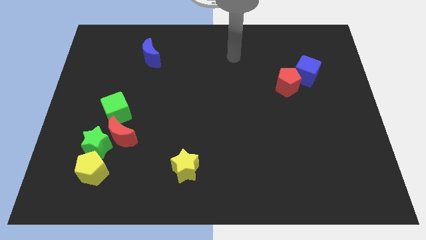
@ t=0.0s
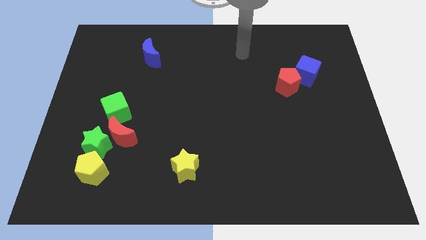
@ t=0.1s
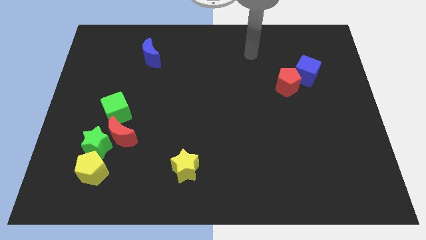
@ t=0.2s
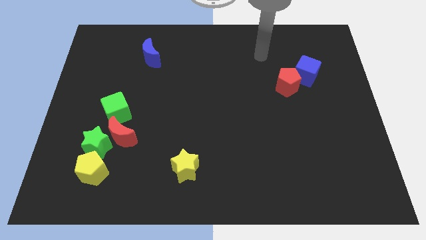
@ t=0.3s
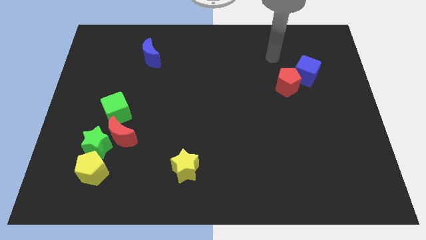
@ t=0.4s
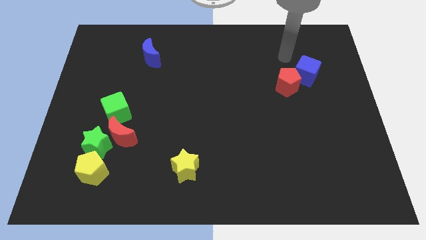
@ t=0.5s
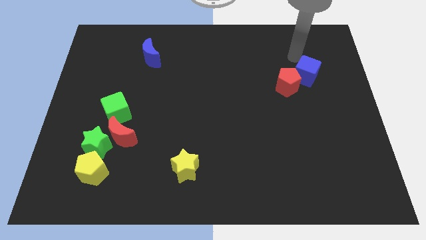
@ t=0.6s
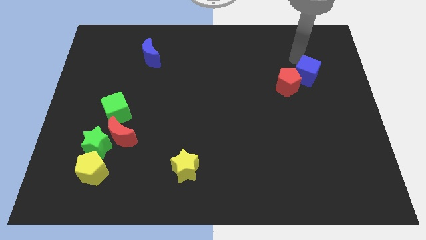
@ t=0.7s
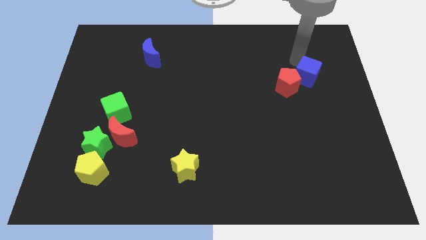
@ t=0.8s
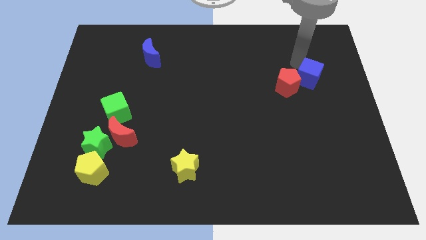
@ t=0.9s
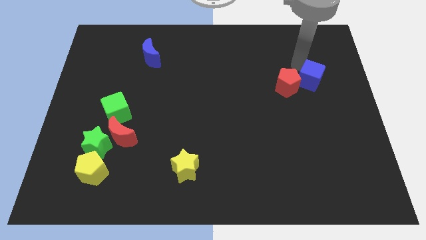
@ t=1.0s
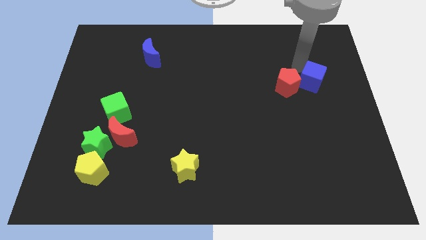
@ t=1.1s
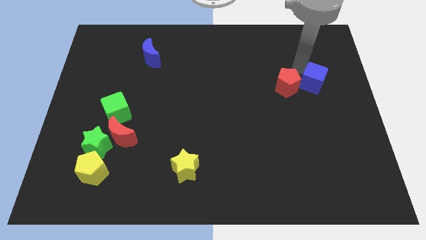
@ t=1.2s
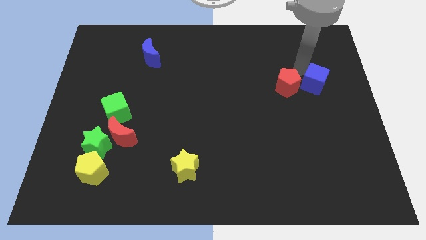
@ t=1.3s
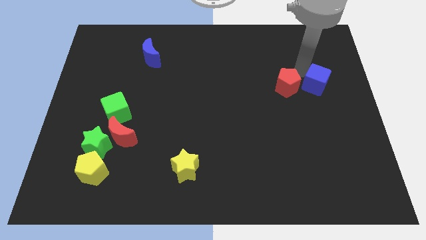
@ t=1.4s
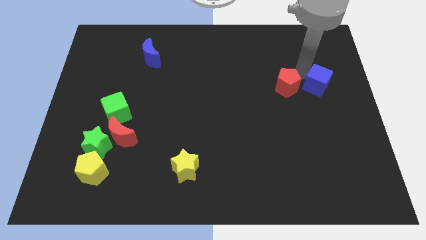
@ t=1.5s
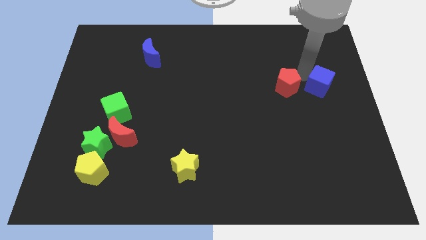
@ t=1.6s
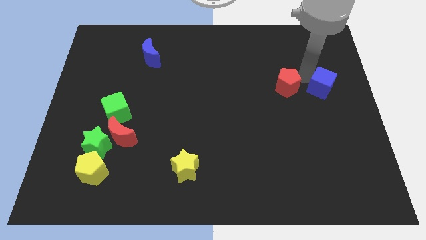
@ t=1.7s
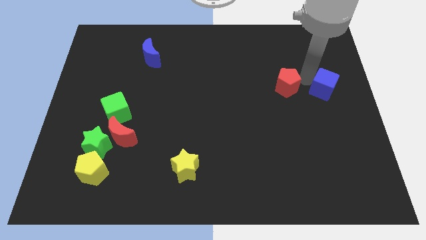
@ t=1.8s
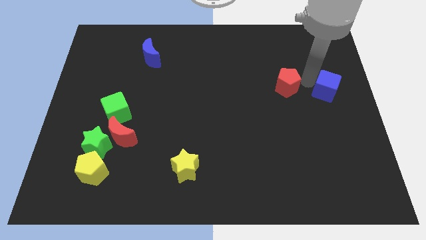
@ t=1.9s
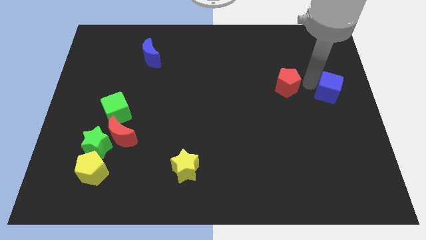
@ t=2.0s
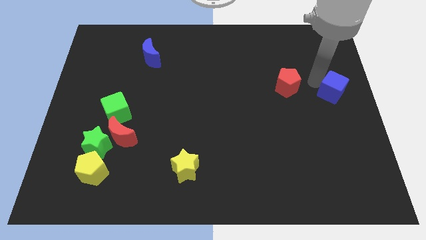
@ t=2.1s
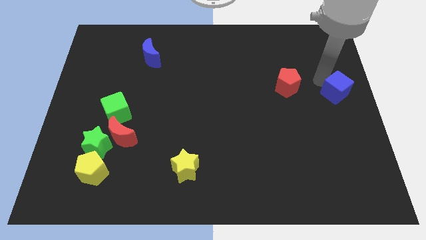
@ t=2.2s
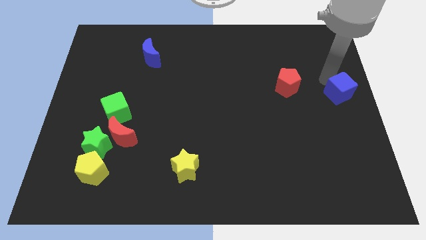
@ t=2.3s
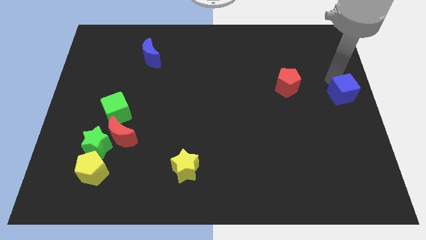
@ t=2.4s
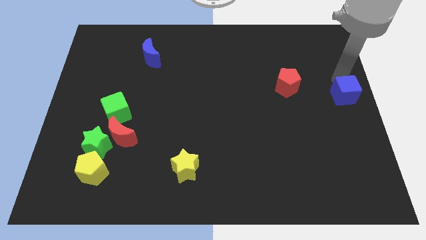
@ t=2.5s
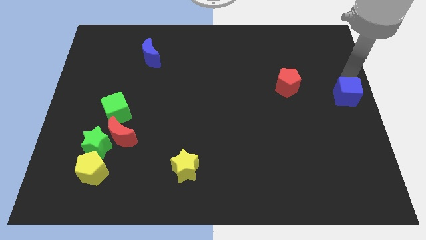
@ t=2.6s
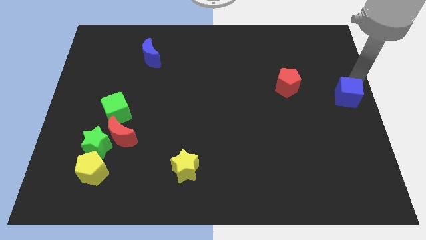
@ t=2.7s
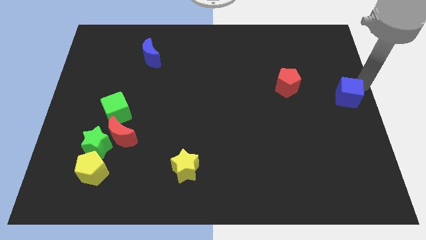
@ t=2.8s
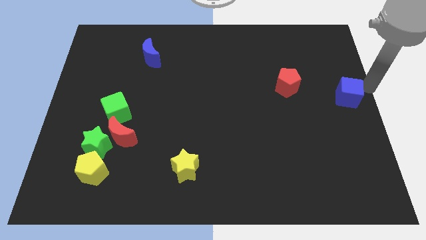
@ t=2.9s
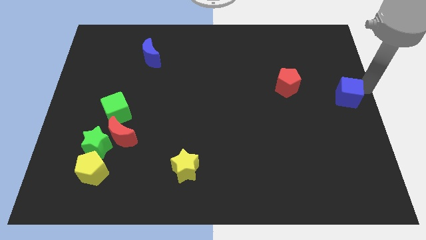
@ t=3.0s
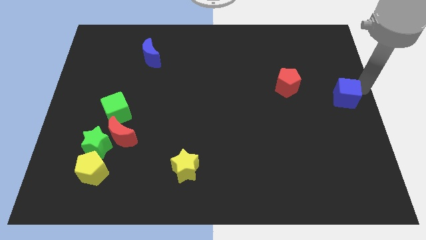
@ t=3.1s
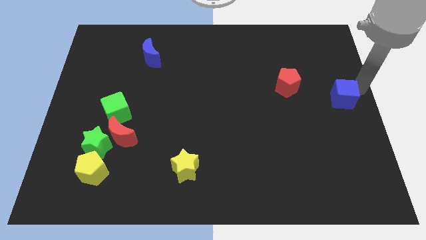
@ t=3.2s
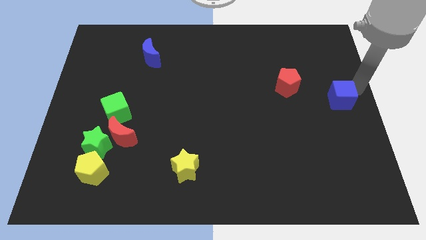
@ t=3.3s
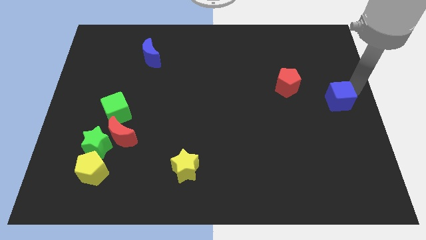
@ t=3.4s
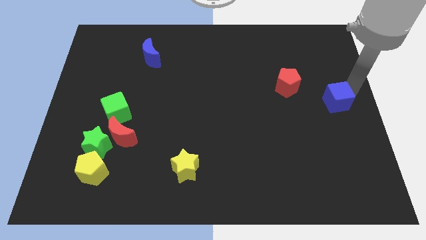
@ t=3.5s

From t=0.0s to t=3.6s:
slide the blue cube a little downwards

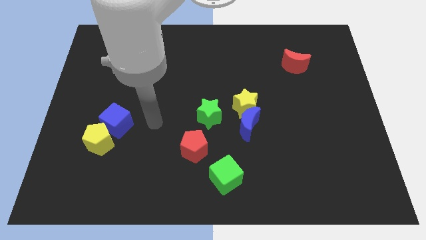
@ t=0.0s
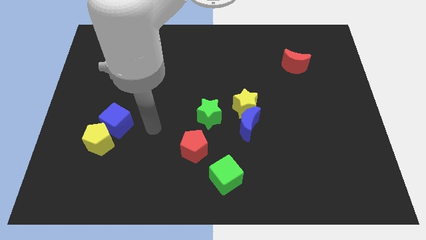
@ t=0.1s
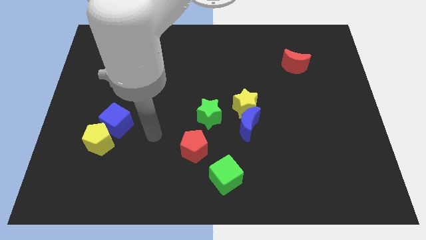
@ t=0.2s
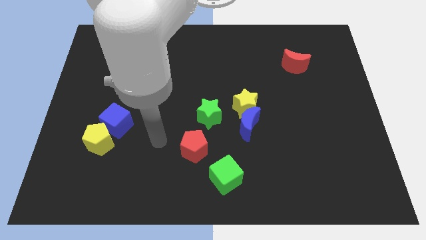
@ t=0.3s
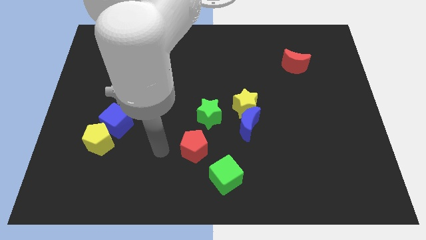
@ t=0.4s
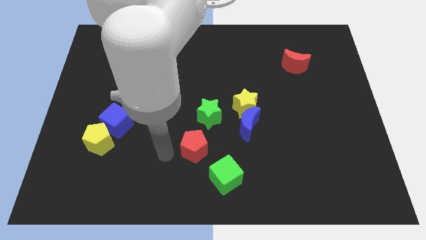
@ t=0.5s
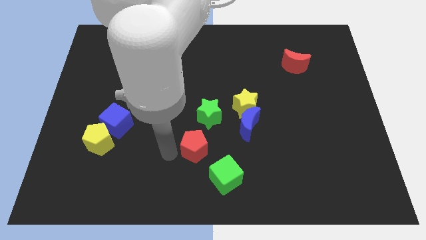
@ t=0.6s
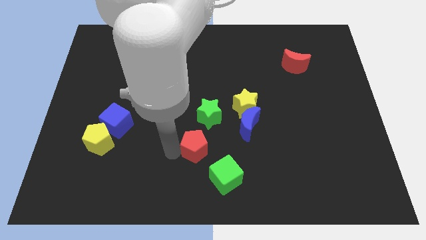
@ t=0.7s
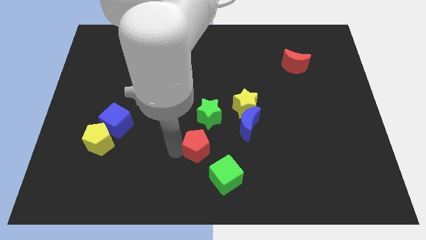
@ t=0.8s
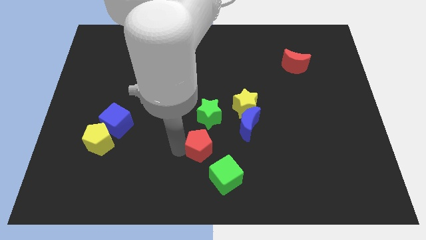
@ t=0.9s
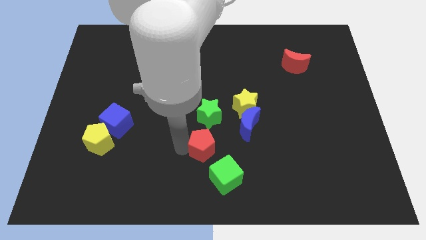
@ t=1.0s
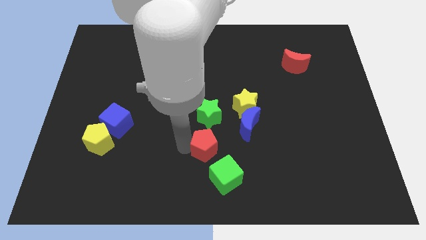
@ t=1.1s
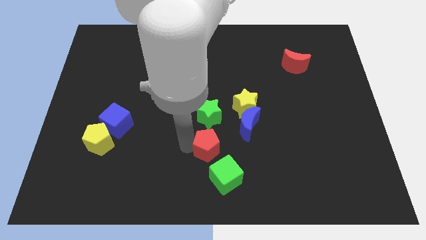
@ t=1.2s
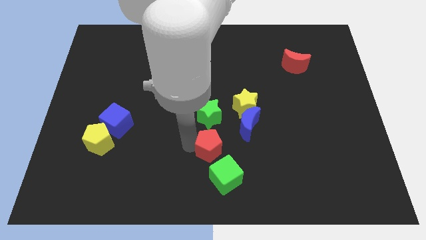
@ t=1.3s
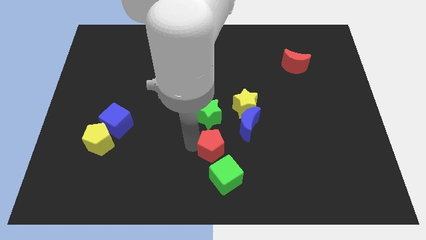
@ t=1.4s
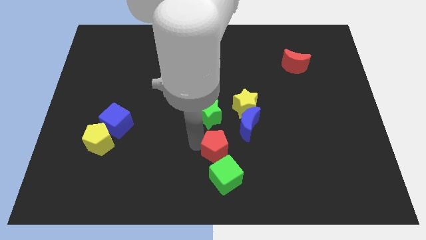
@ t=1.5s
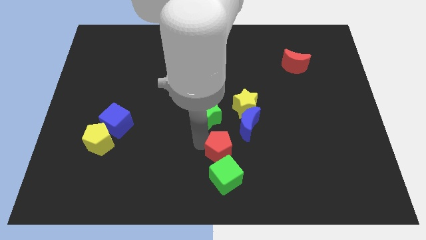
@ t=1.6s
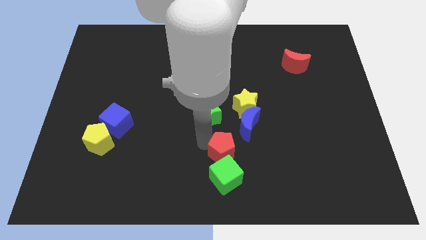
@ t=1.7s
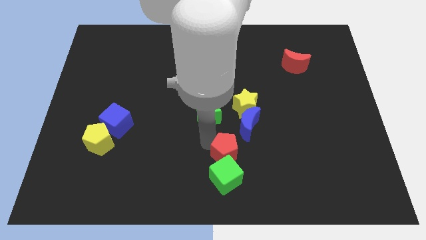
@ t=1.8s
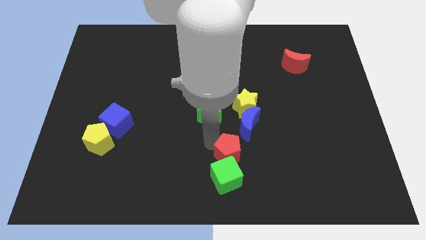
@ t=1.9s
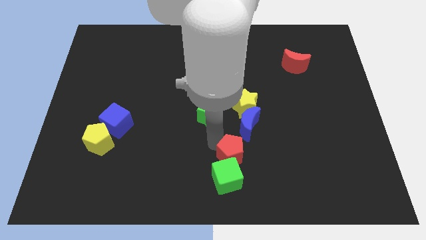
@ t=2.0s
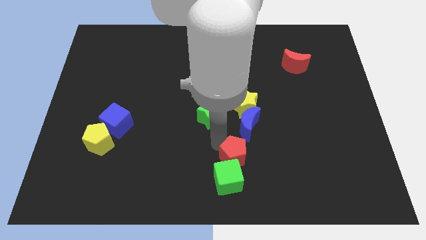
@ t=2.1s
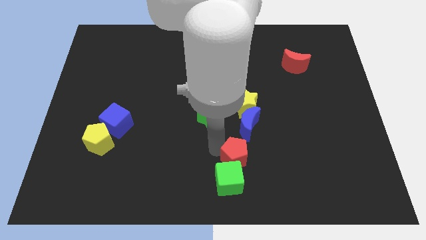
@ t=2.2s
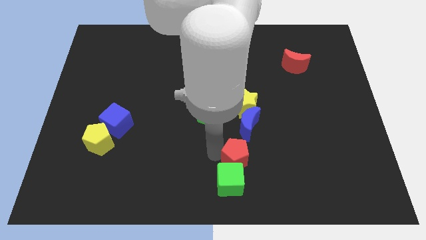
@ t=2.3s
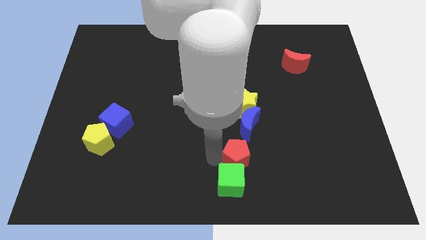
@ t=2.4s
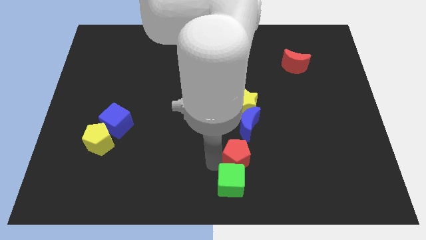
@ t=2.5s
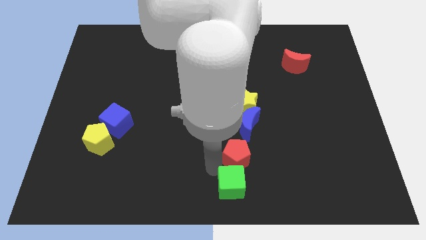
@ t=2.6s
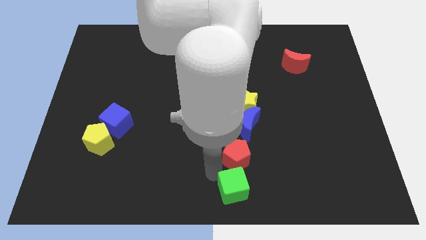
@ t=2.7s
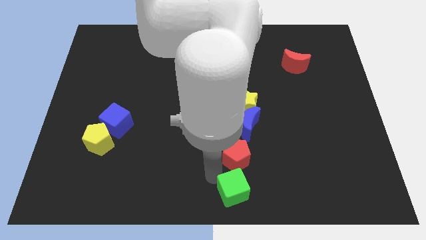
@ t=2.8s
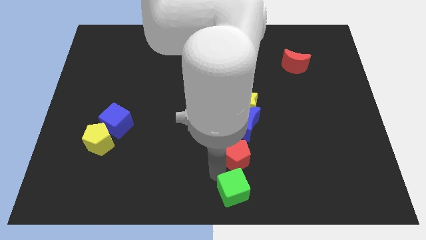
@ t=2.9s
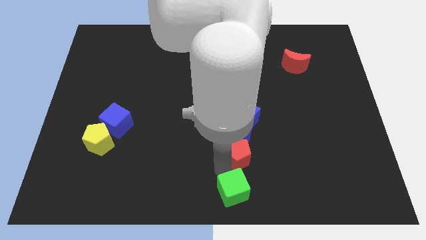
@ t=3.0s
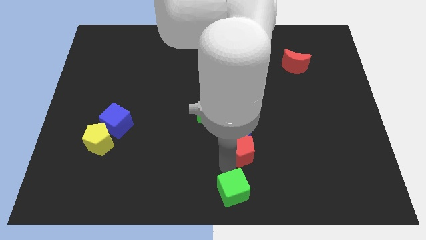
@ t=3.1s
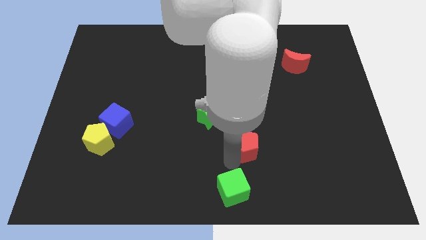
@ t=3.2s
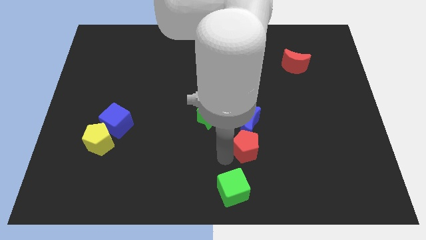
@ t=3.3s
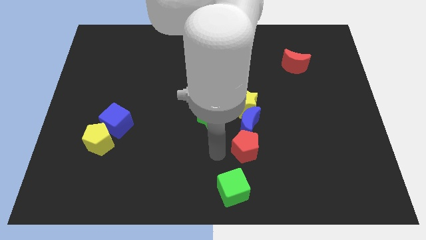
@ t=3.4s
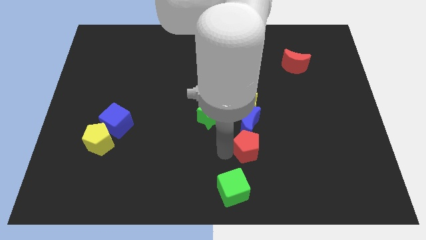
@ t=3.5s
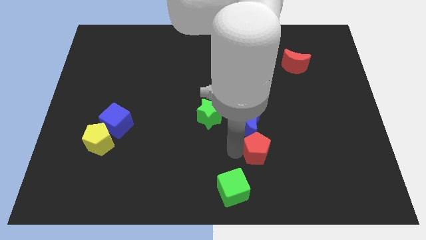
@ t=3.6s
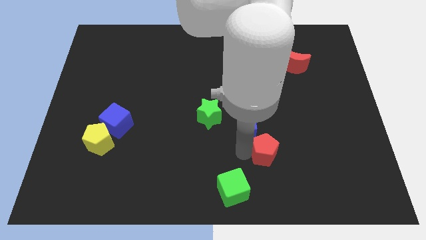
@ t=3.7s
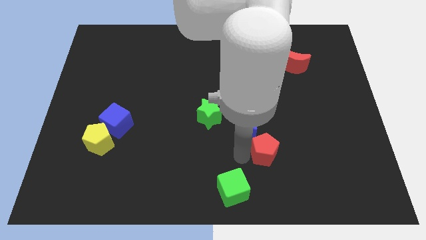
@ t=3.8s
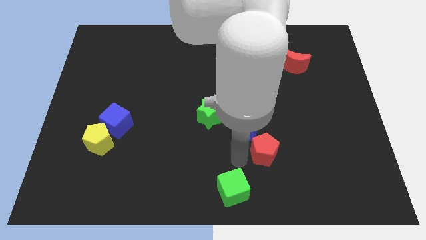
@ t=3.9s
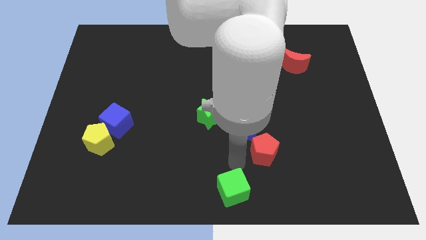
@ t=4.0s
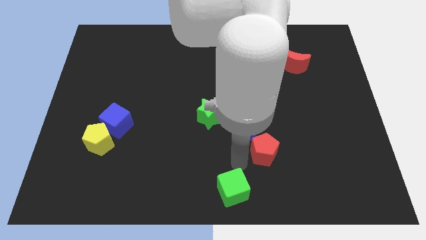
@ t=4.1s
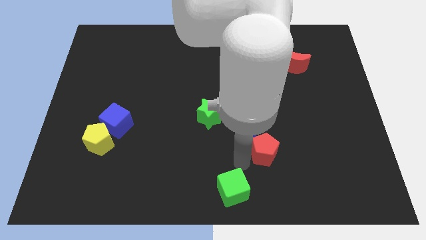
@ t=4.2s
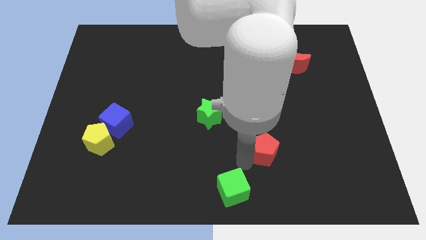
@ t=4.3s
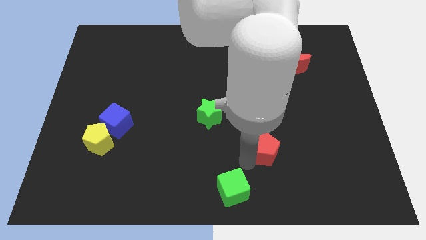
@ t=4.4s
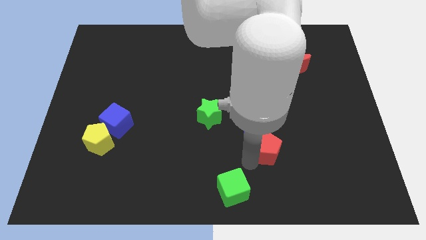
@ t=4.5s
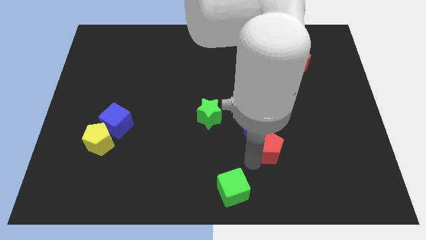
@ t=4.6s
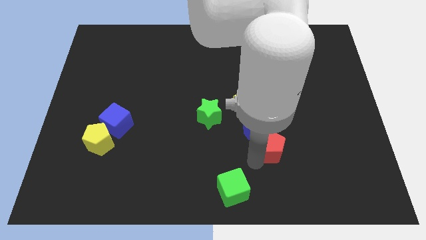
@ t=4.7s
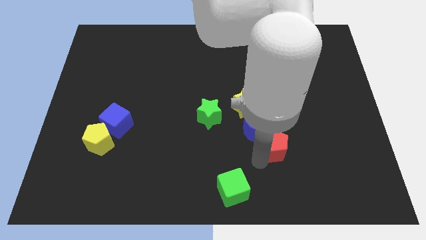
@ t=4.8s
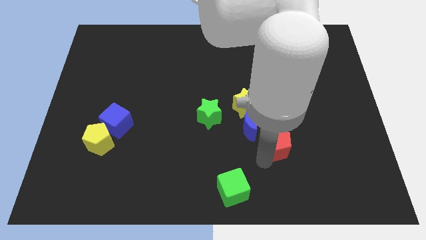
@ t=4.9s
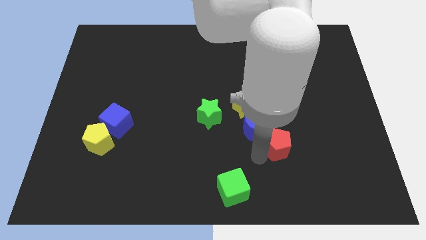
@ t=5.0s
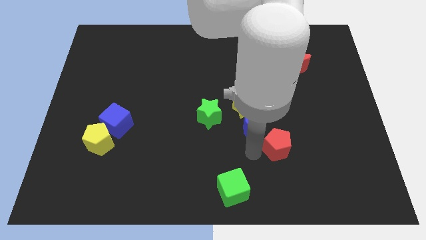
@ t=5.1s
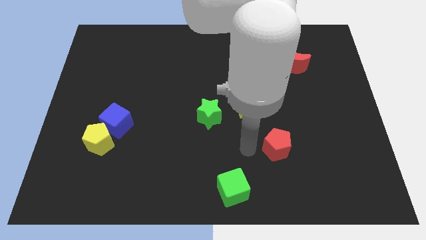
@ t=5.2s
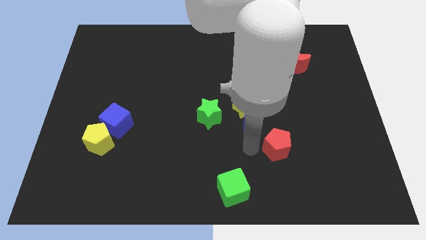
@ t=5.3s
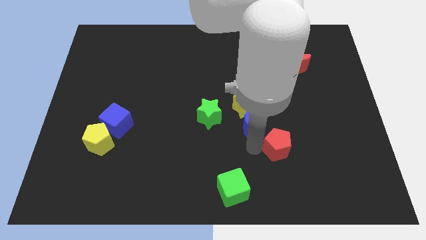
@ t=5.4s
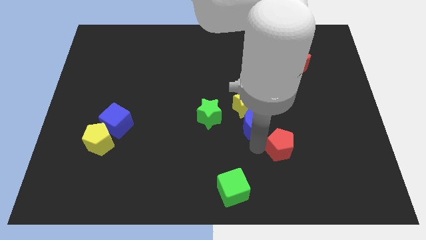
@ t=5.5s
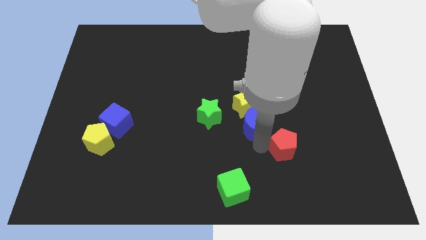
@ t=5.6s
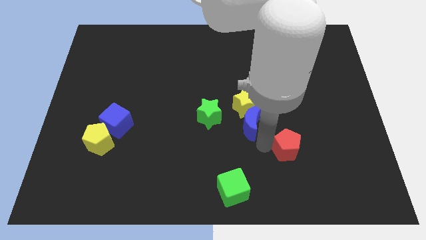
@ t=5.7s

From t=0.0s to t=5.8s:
slide the red pentagon to the right
